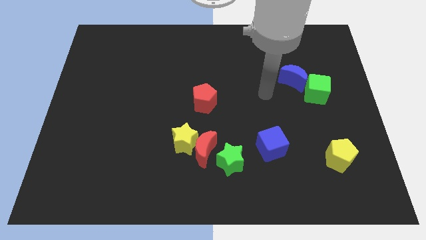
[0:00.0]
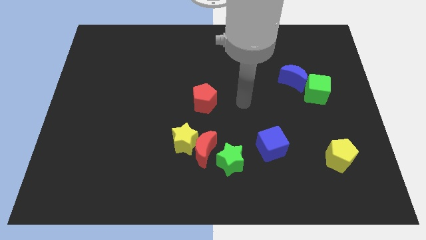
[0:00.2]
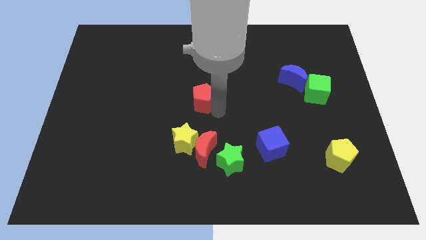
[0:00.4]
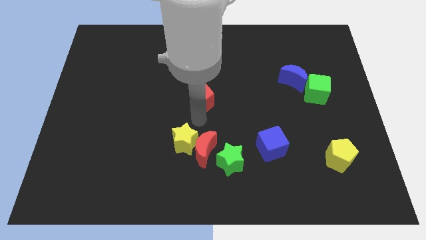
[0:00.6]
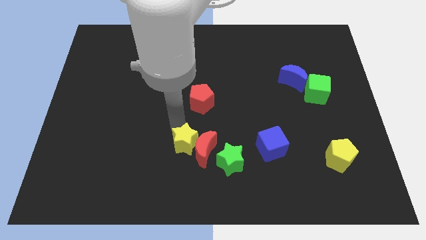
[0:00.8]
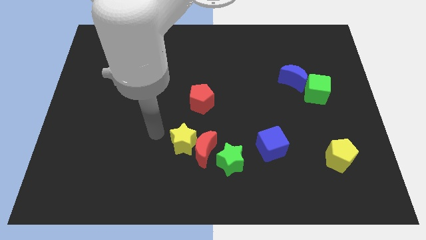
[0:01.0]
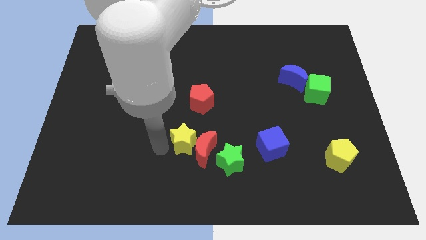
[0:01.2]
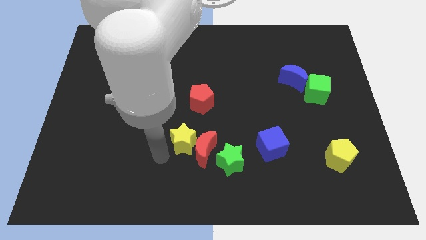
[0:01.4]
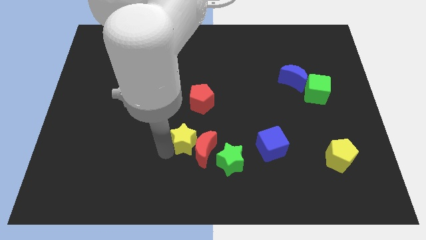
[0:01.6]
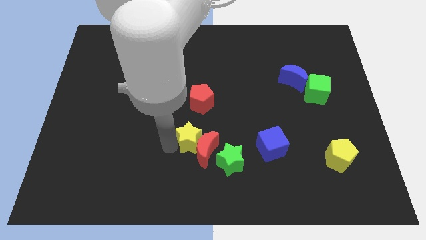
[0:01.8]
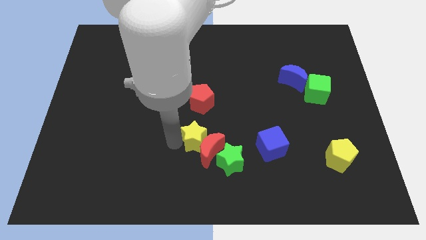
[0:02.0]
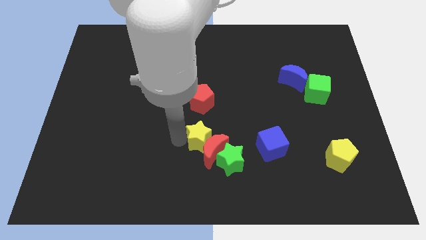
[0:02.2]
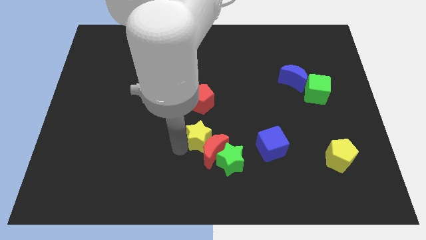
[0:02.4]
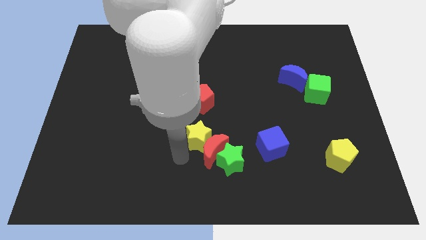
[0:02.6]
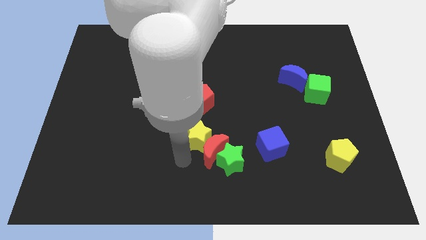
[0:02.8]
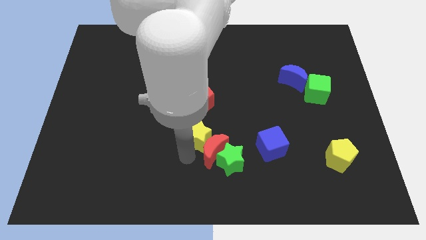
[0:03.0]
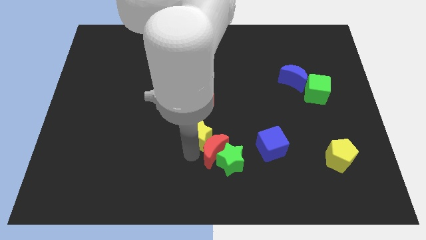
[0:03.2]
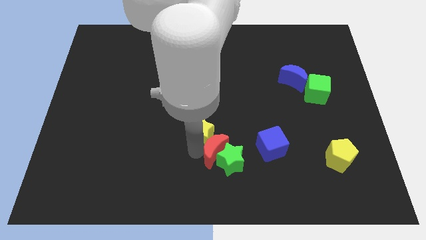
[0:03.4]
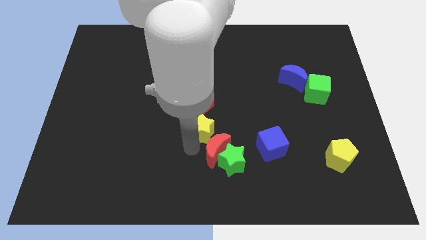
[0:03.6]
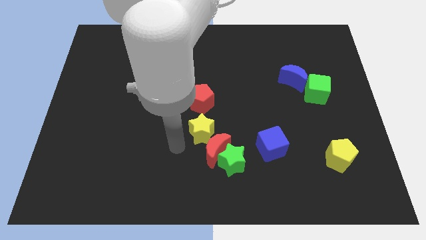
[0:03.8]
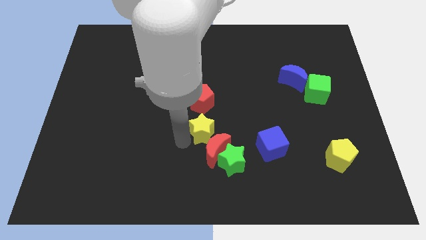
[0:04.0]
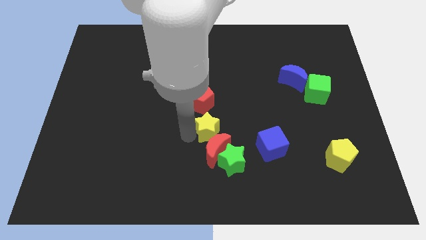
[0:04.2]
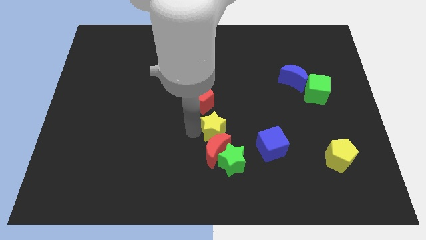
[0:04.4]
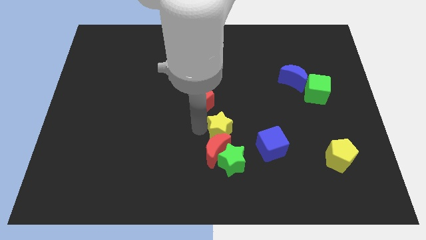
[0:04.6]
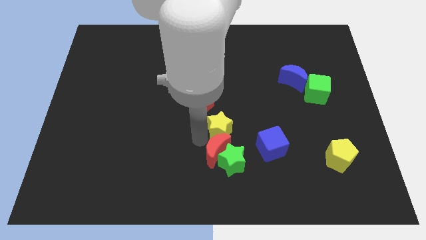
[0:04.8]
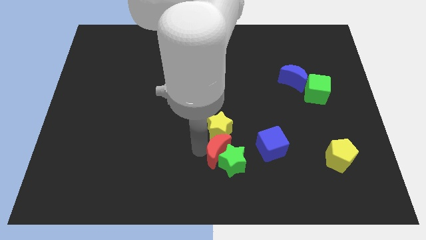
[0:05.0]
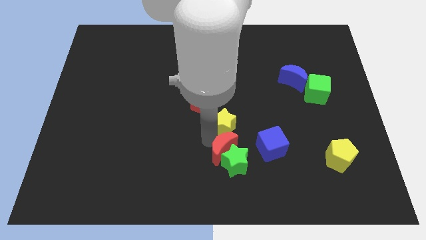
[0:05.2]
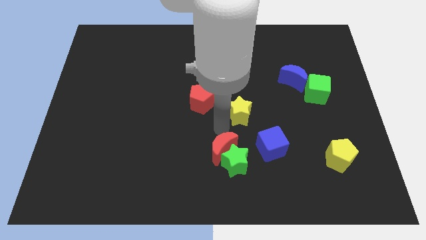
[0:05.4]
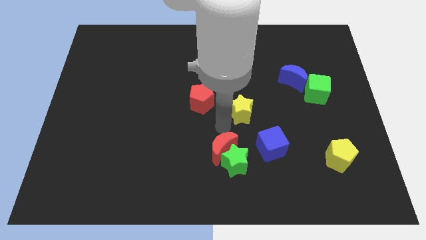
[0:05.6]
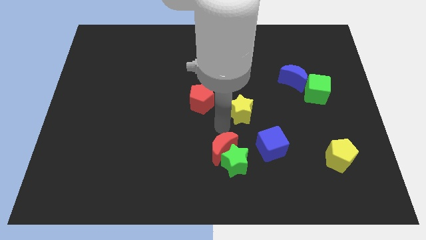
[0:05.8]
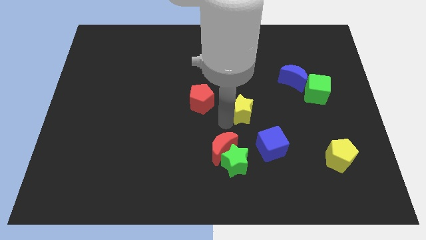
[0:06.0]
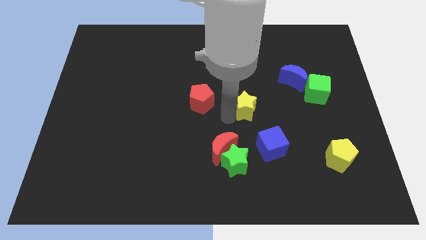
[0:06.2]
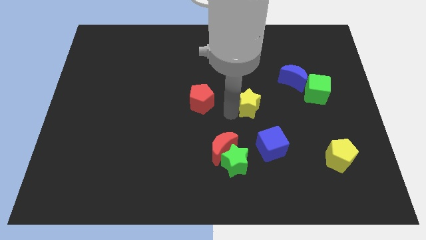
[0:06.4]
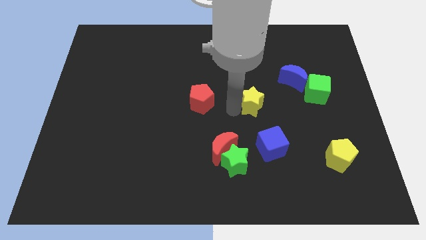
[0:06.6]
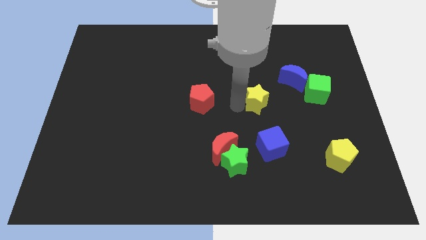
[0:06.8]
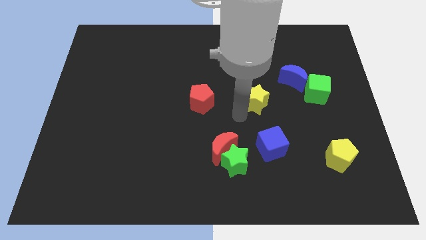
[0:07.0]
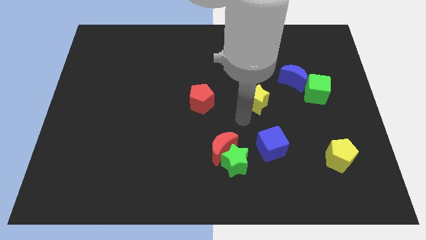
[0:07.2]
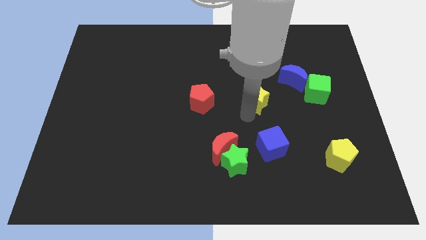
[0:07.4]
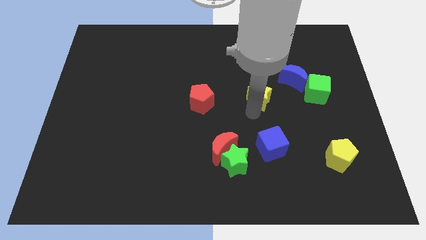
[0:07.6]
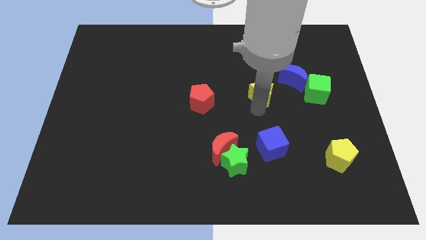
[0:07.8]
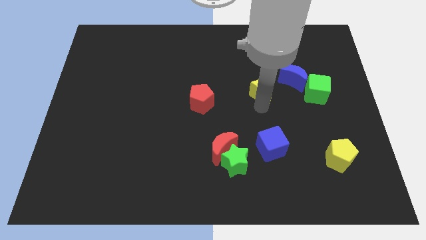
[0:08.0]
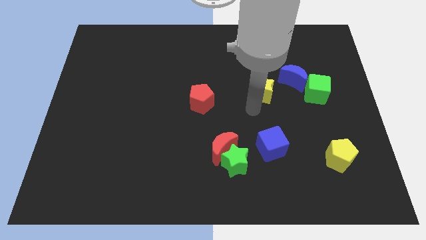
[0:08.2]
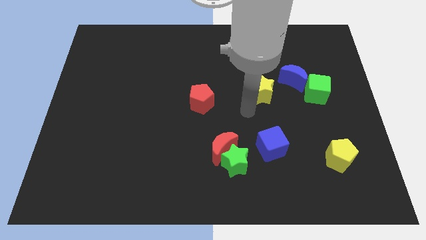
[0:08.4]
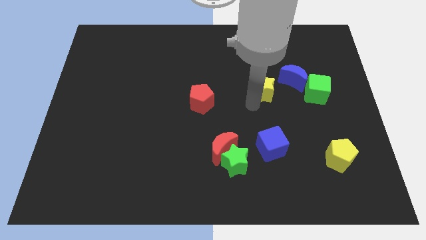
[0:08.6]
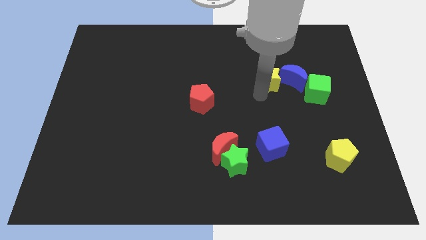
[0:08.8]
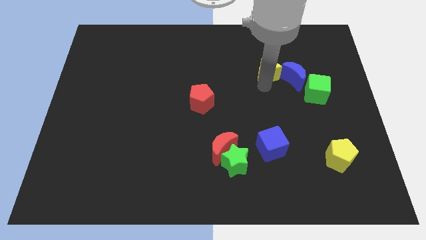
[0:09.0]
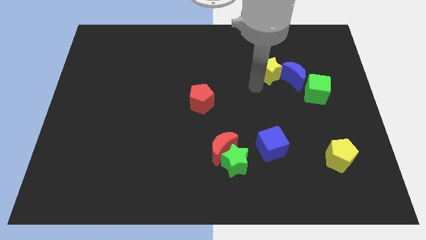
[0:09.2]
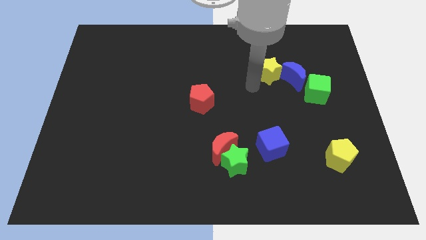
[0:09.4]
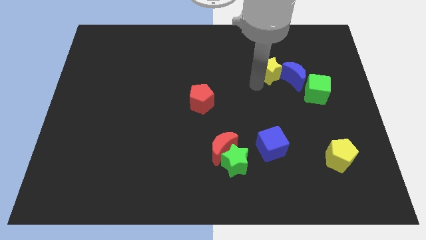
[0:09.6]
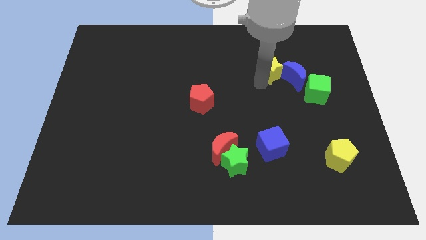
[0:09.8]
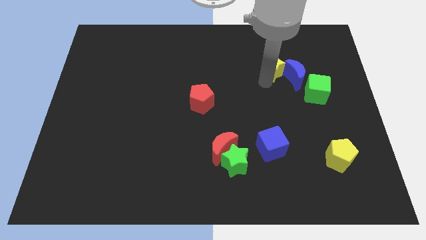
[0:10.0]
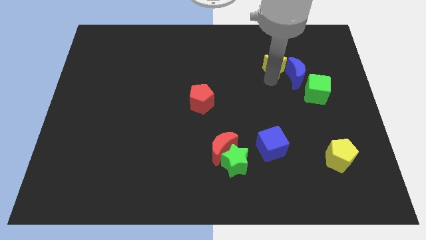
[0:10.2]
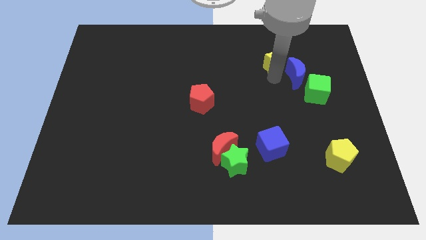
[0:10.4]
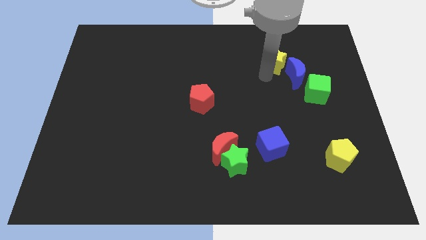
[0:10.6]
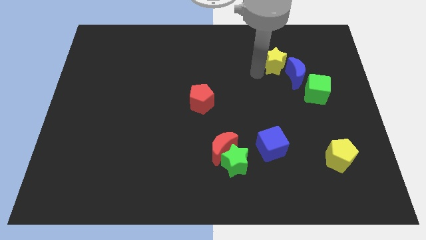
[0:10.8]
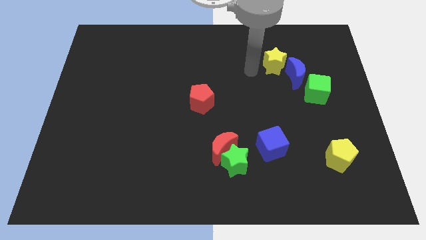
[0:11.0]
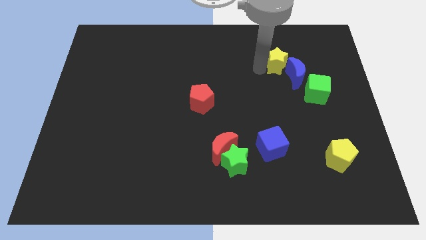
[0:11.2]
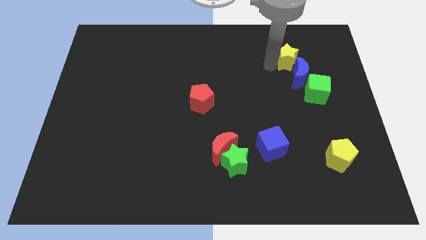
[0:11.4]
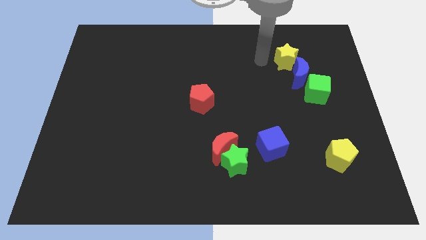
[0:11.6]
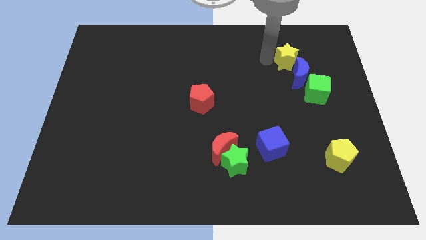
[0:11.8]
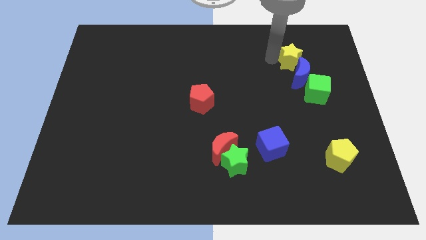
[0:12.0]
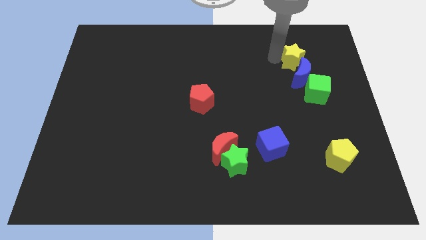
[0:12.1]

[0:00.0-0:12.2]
move the yellow star to the top side of the green cube
